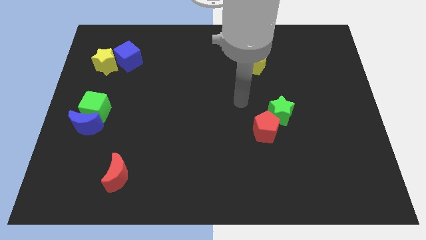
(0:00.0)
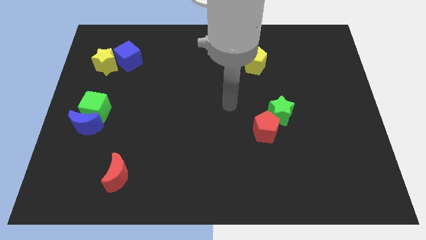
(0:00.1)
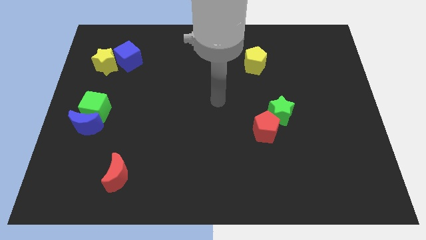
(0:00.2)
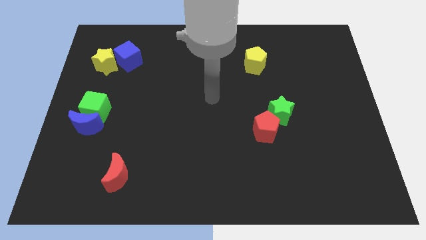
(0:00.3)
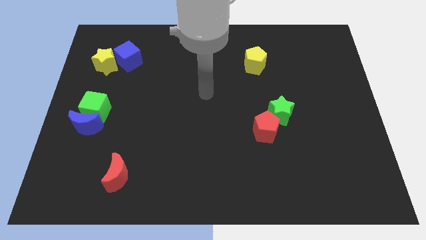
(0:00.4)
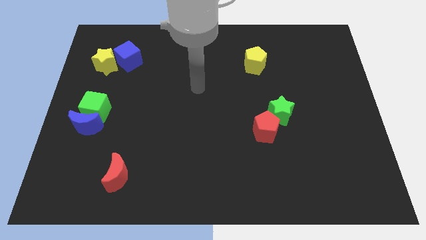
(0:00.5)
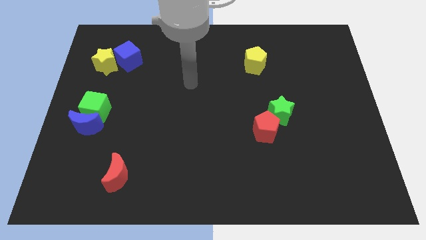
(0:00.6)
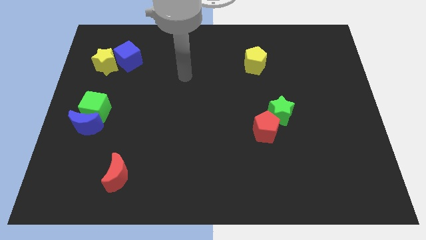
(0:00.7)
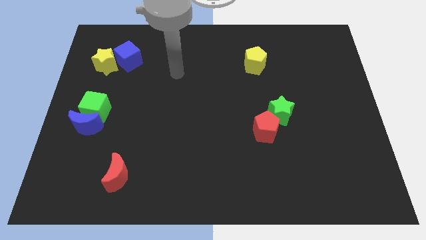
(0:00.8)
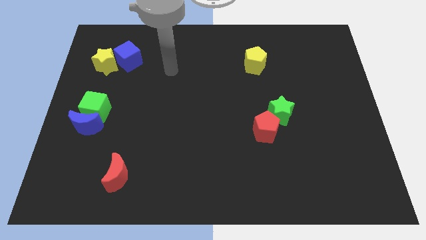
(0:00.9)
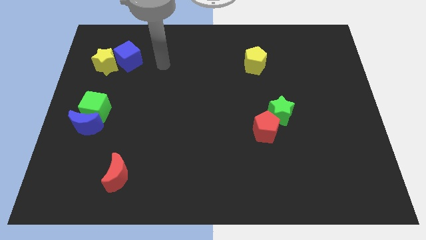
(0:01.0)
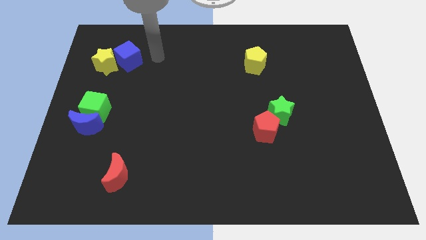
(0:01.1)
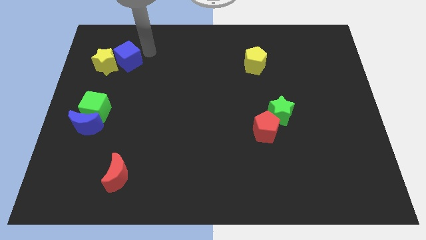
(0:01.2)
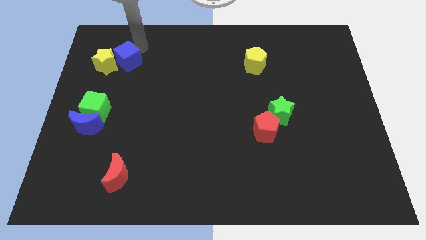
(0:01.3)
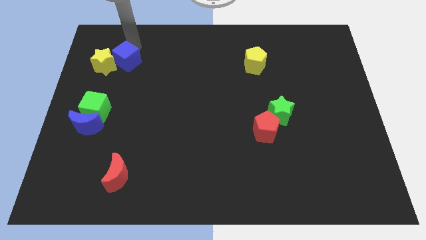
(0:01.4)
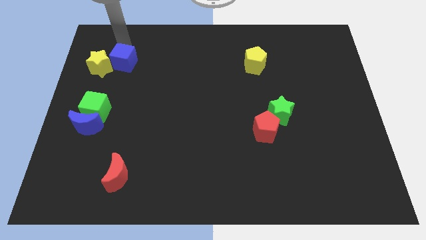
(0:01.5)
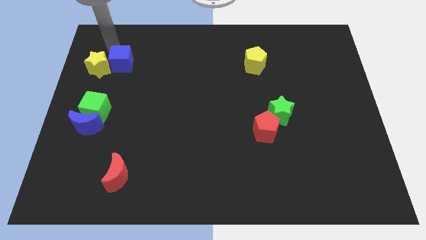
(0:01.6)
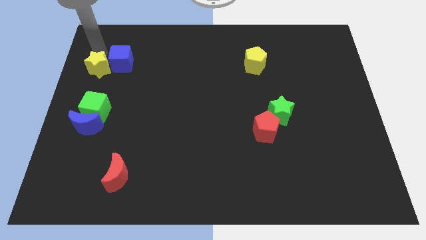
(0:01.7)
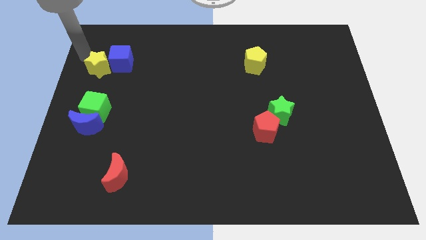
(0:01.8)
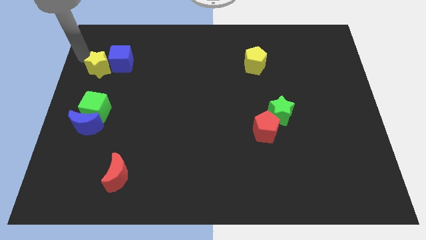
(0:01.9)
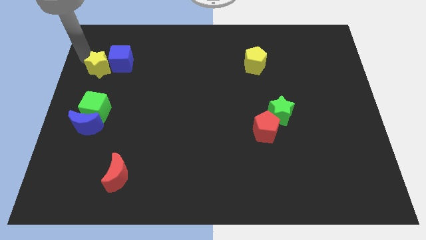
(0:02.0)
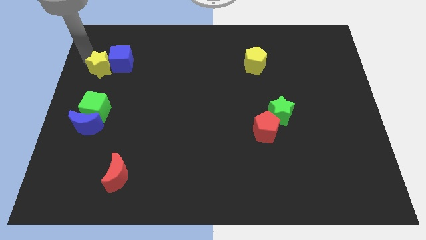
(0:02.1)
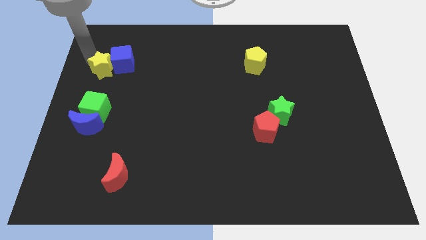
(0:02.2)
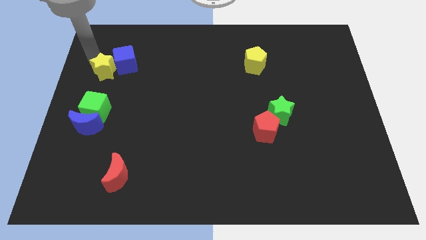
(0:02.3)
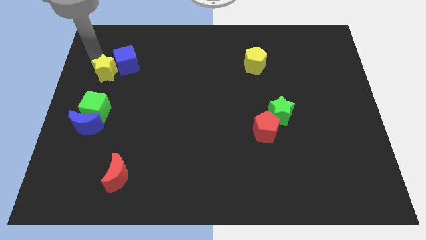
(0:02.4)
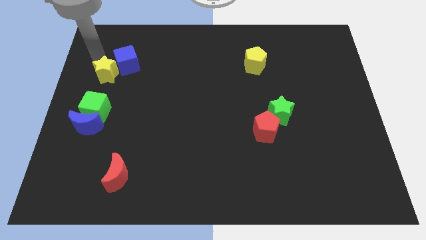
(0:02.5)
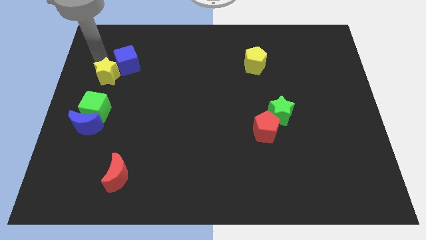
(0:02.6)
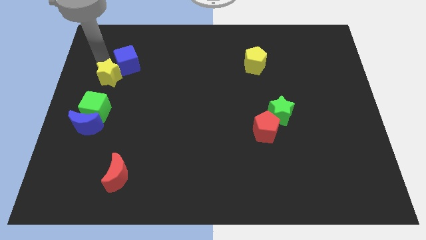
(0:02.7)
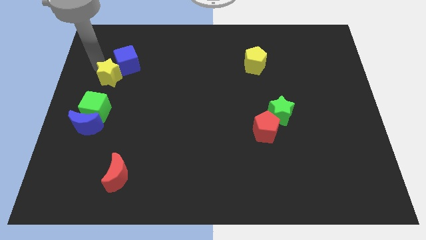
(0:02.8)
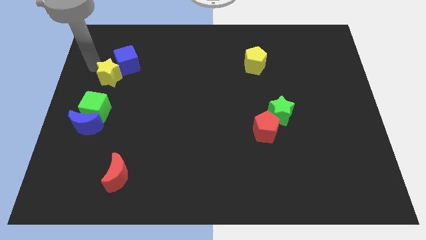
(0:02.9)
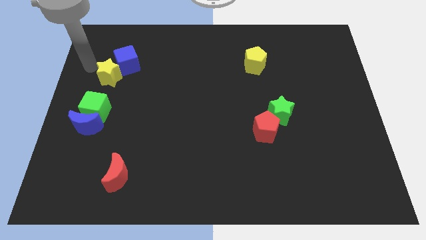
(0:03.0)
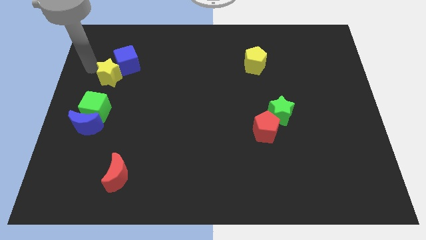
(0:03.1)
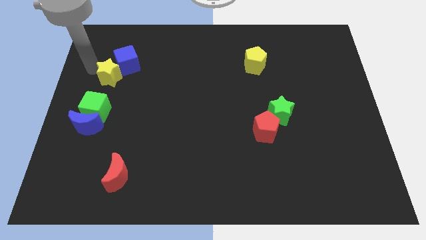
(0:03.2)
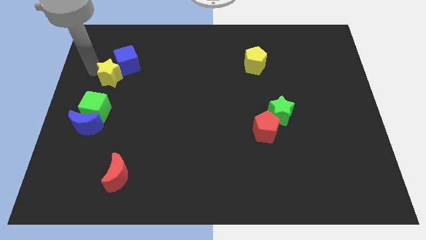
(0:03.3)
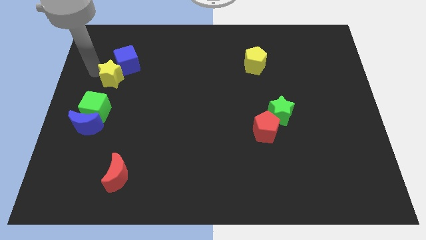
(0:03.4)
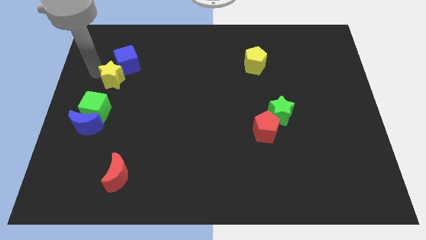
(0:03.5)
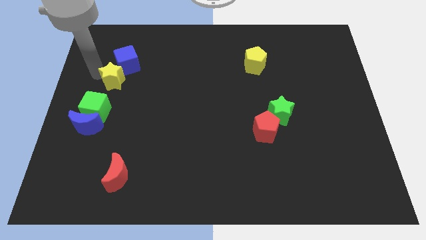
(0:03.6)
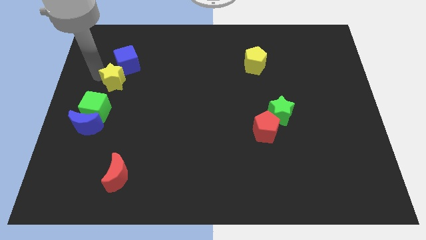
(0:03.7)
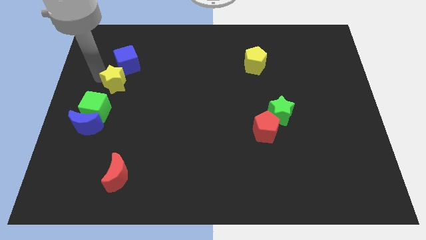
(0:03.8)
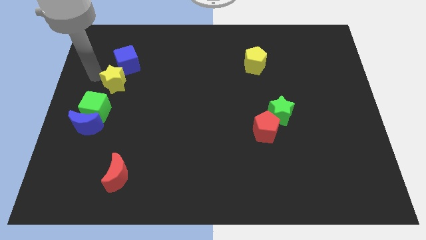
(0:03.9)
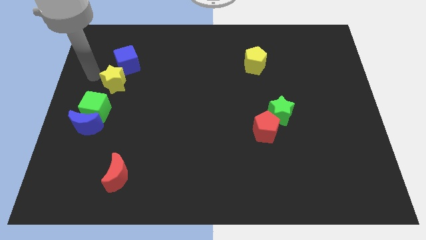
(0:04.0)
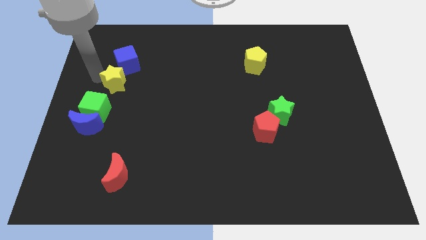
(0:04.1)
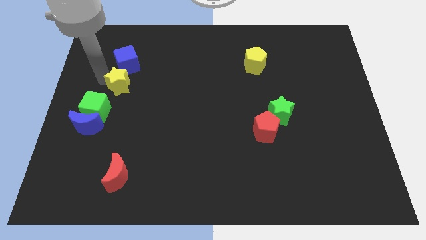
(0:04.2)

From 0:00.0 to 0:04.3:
slide the yellow star a little downwards and then to the right

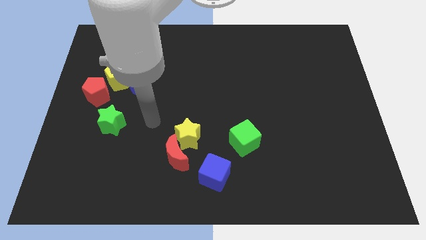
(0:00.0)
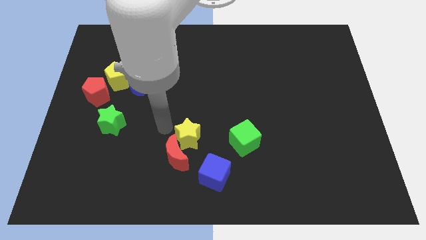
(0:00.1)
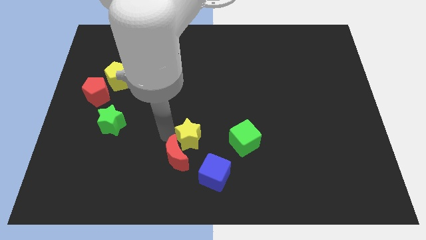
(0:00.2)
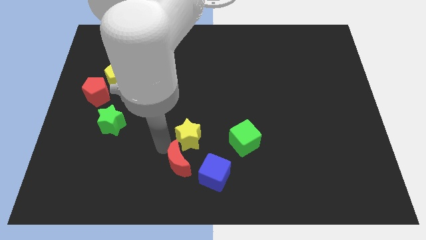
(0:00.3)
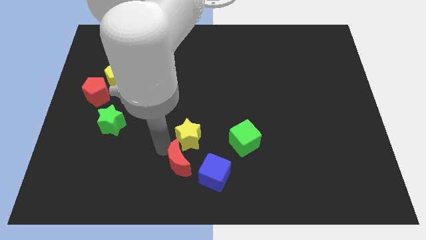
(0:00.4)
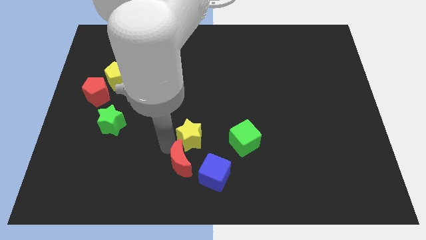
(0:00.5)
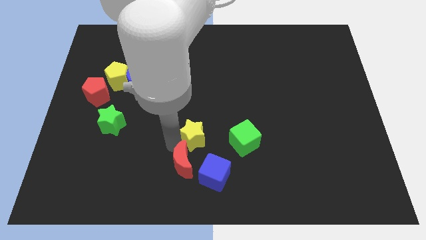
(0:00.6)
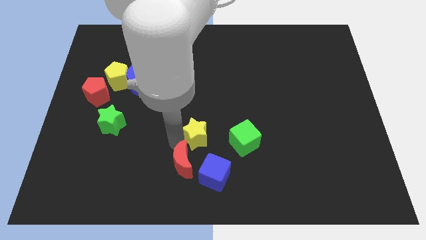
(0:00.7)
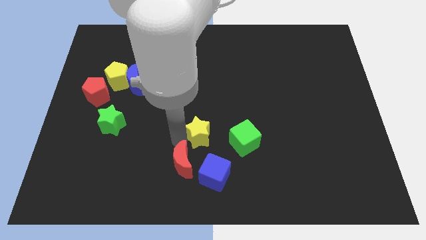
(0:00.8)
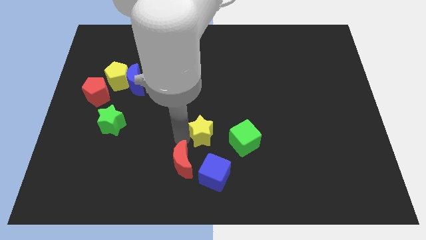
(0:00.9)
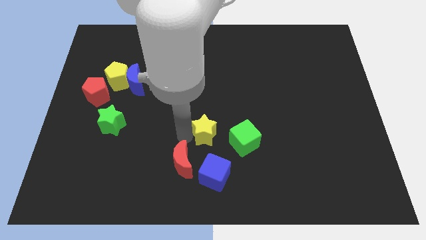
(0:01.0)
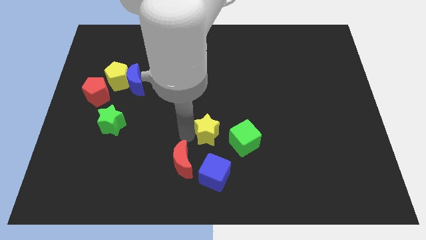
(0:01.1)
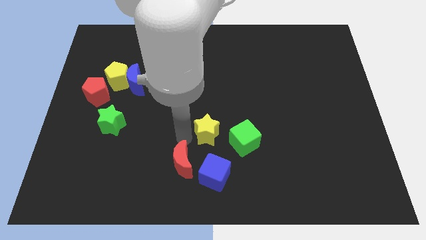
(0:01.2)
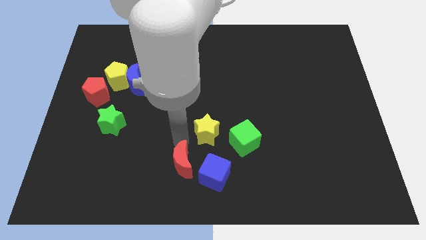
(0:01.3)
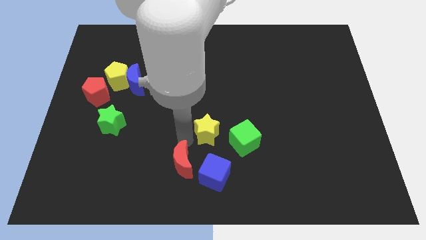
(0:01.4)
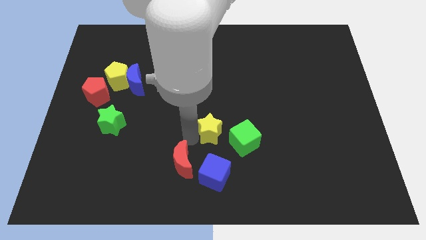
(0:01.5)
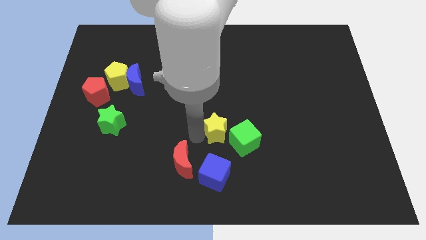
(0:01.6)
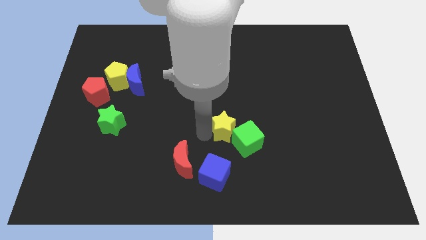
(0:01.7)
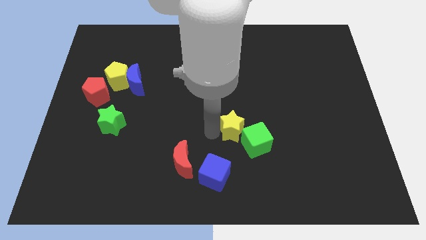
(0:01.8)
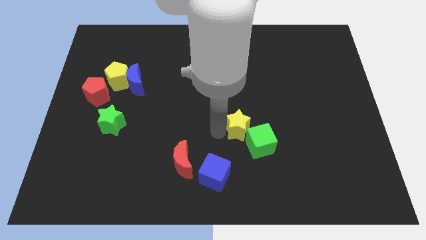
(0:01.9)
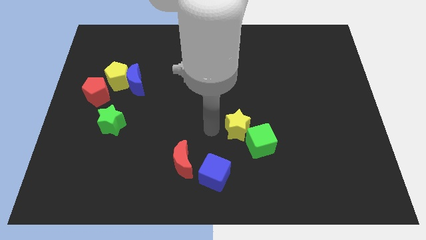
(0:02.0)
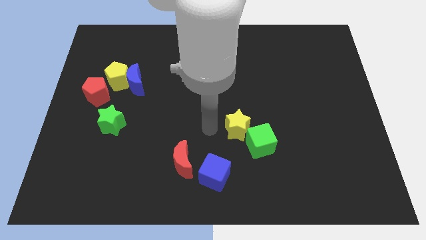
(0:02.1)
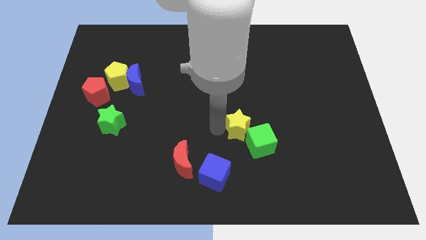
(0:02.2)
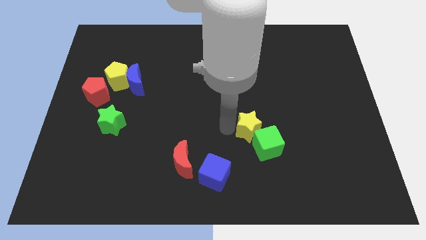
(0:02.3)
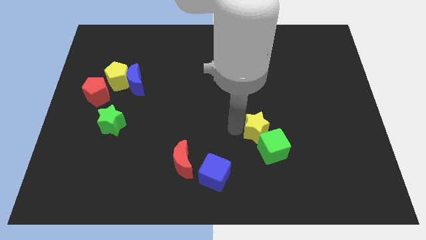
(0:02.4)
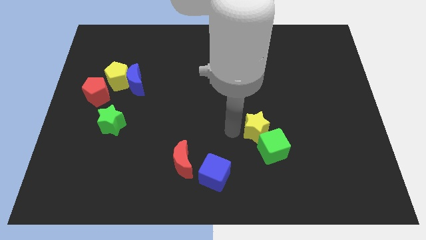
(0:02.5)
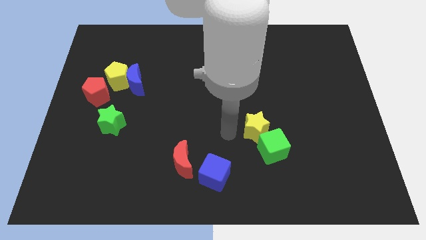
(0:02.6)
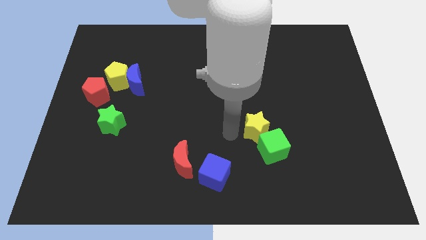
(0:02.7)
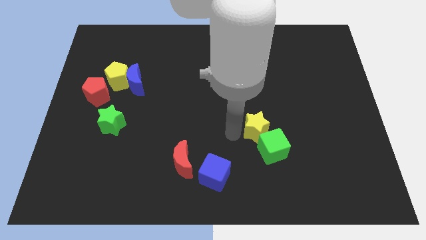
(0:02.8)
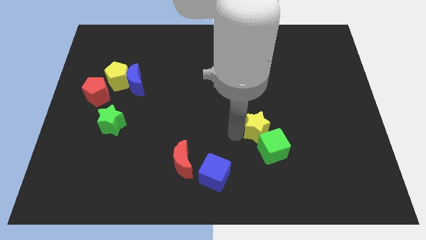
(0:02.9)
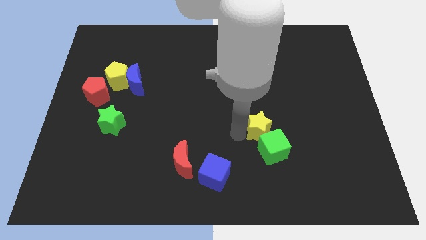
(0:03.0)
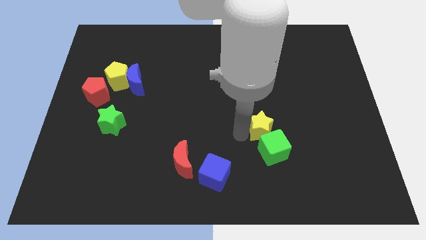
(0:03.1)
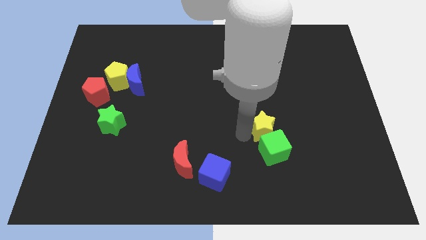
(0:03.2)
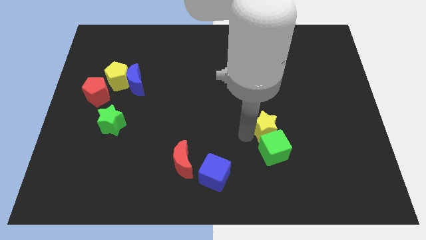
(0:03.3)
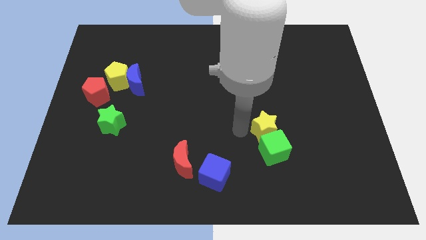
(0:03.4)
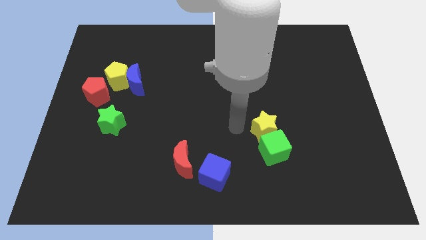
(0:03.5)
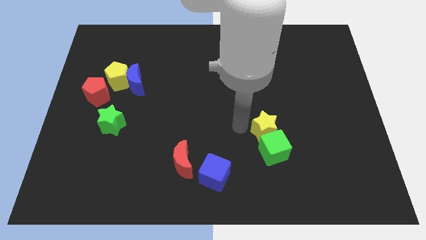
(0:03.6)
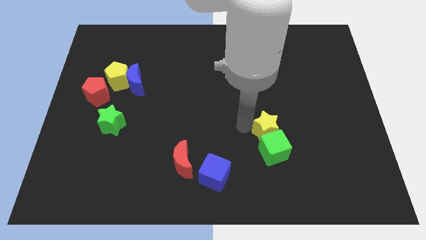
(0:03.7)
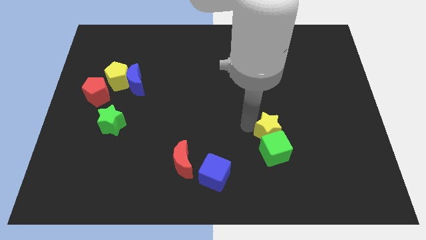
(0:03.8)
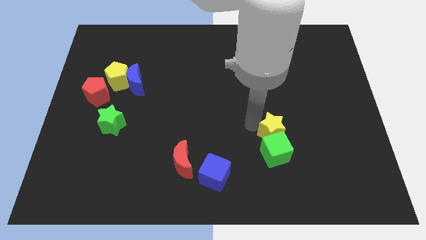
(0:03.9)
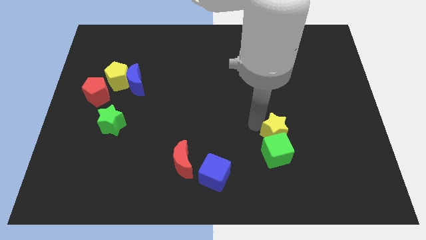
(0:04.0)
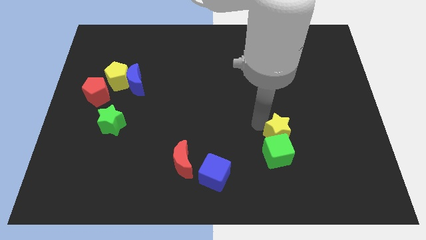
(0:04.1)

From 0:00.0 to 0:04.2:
move the yellow star to the right
